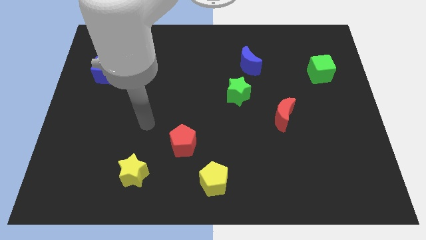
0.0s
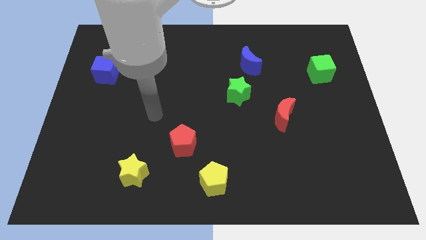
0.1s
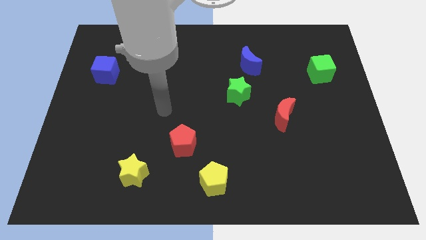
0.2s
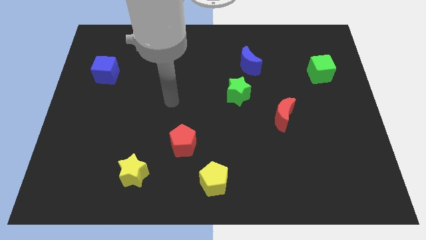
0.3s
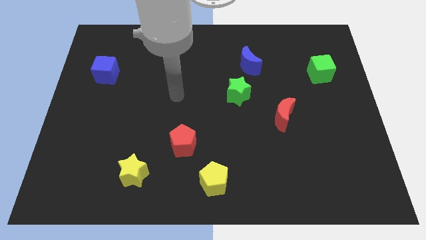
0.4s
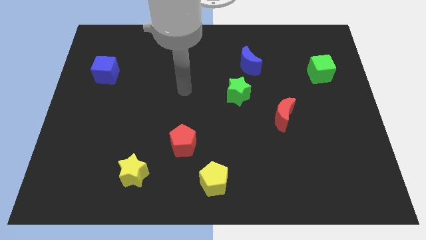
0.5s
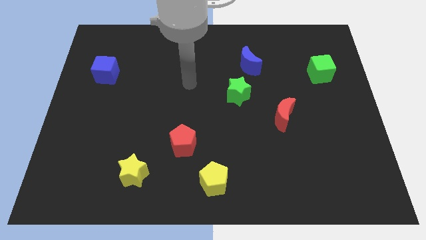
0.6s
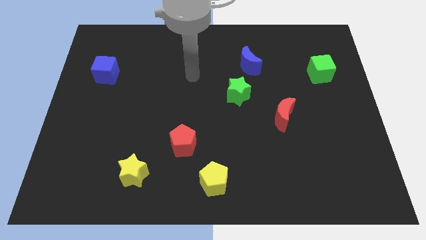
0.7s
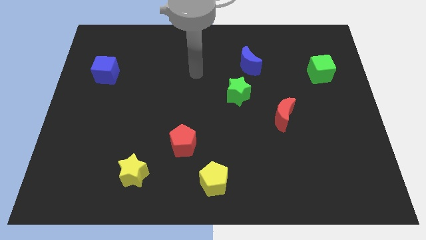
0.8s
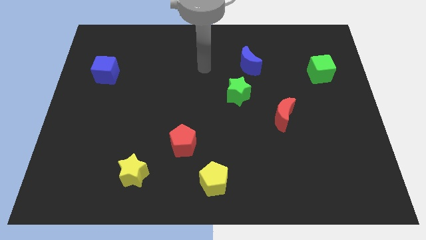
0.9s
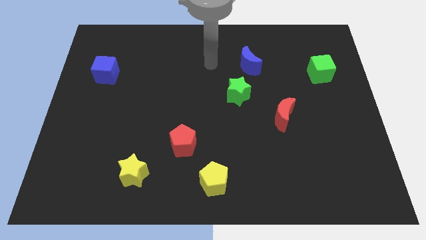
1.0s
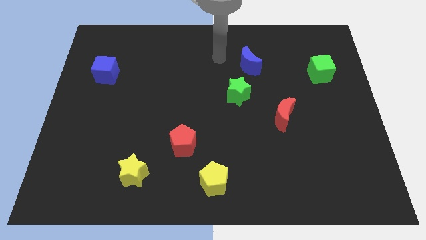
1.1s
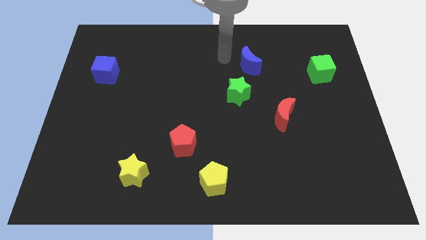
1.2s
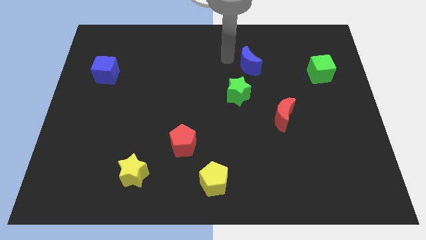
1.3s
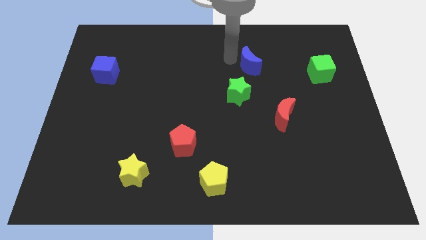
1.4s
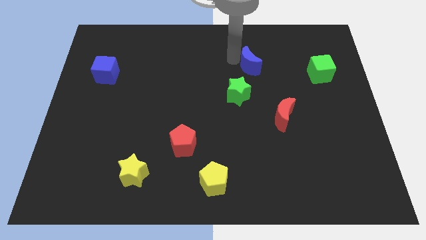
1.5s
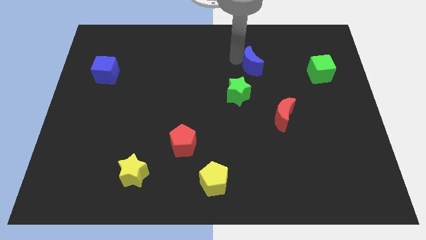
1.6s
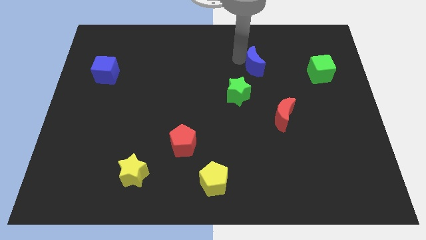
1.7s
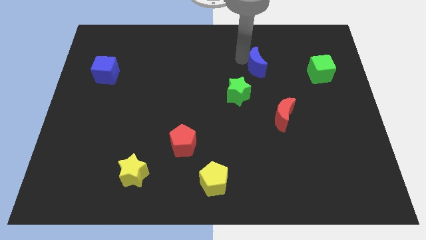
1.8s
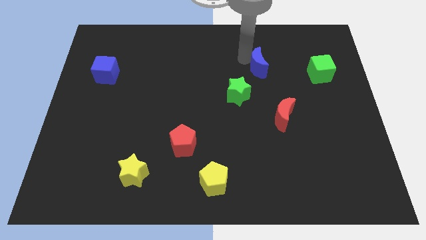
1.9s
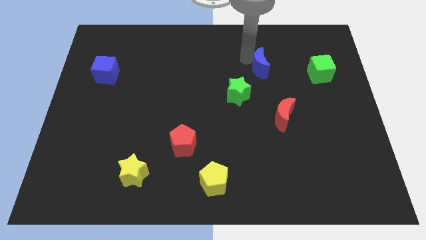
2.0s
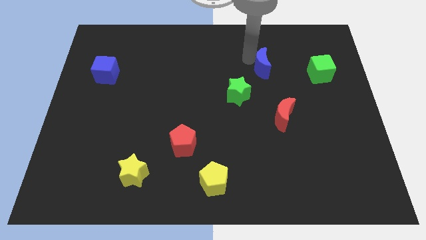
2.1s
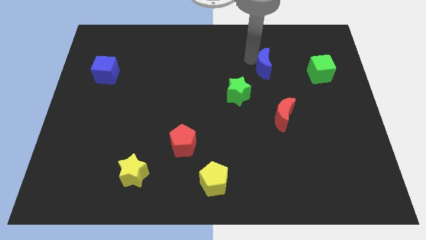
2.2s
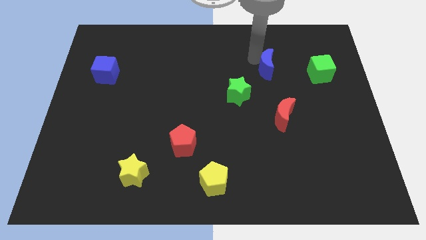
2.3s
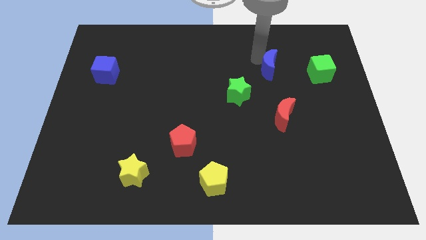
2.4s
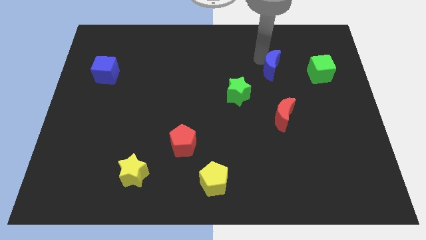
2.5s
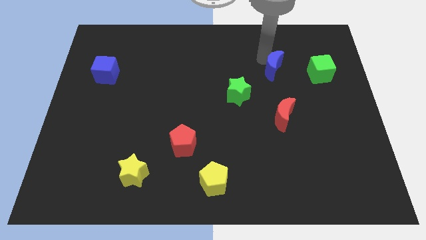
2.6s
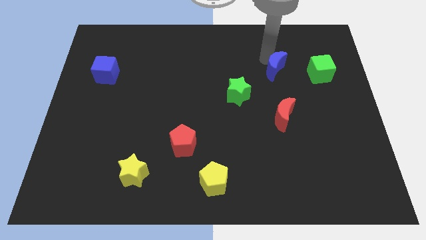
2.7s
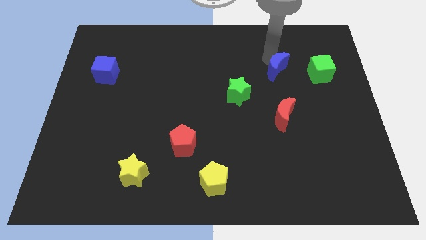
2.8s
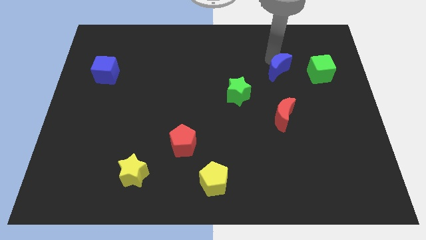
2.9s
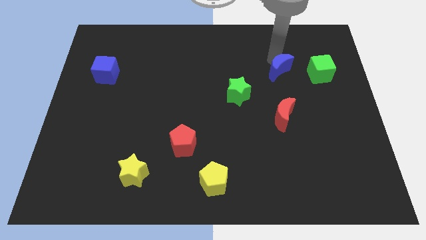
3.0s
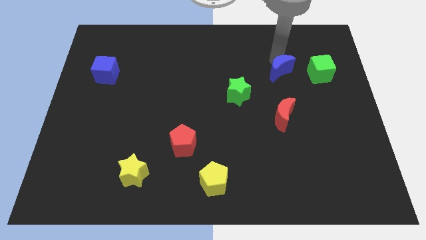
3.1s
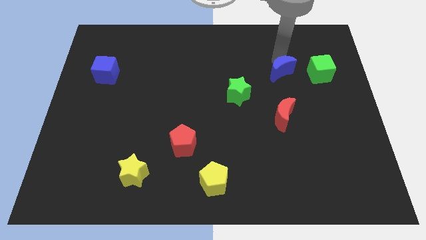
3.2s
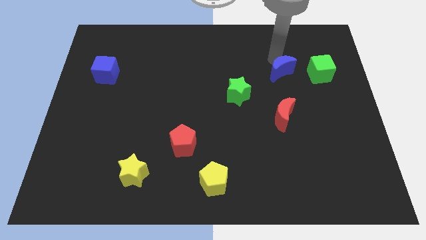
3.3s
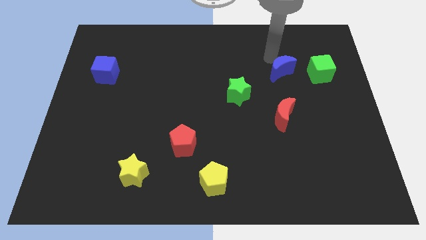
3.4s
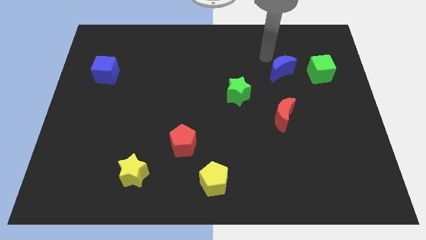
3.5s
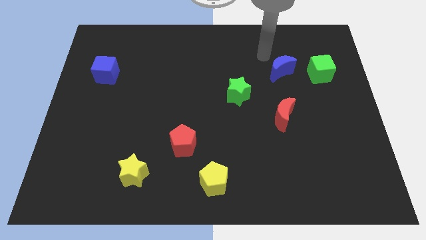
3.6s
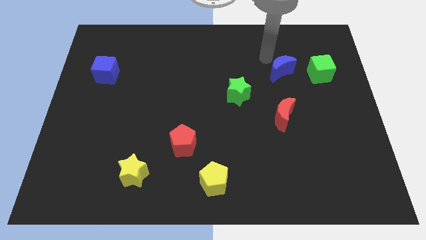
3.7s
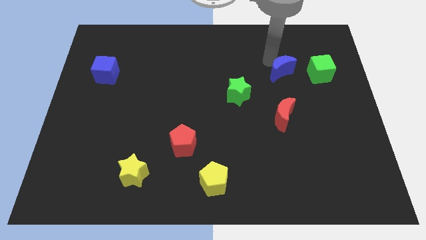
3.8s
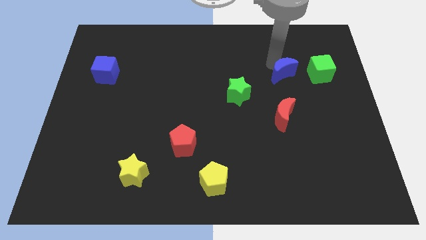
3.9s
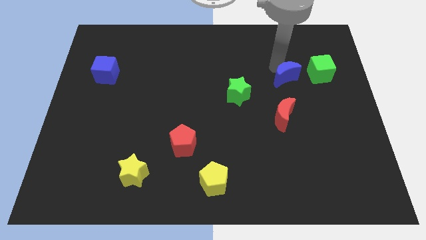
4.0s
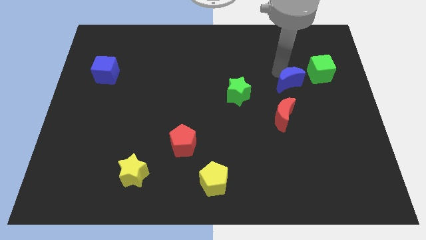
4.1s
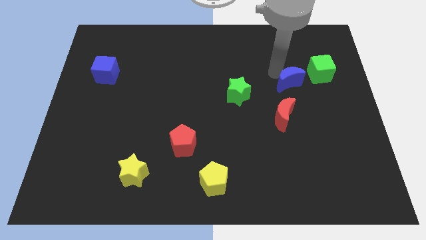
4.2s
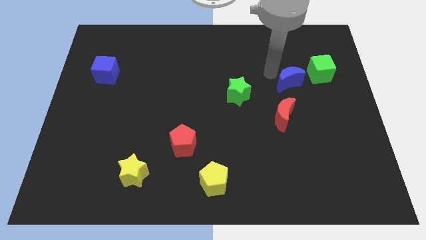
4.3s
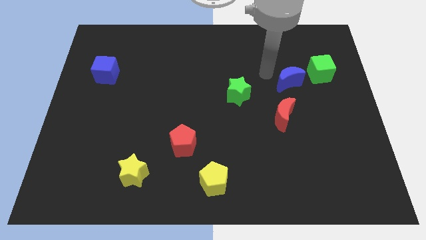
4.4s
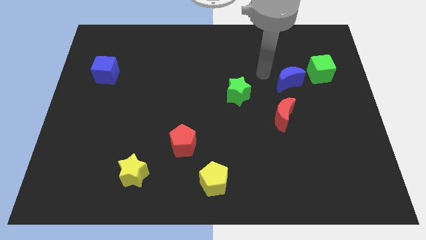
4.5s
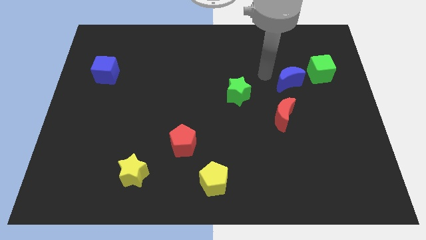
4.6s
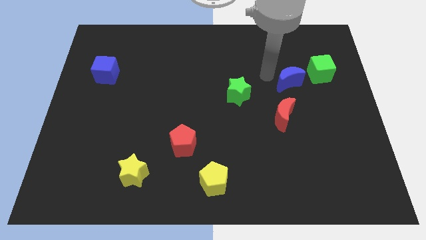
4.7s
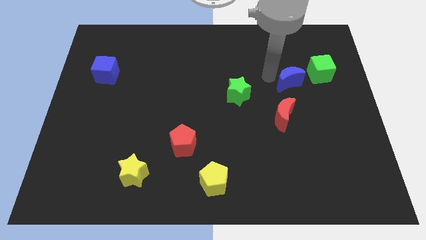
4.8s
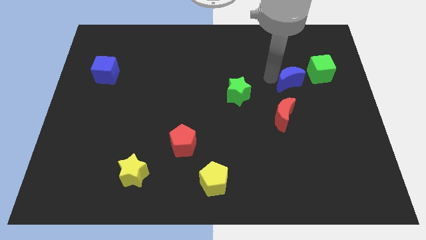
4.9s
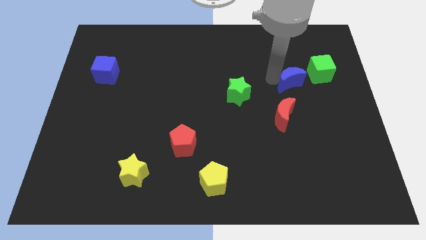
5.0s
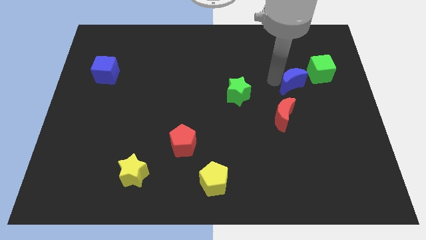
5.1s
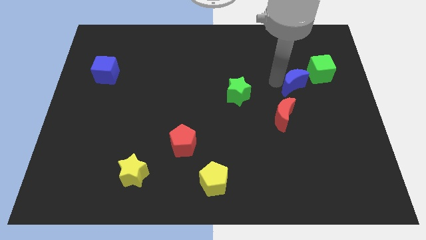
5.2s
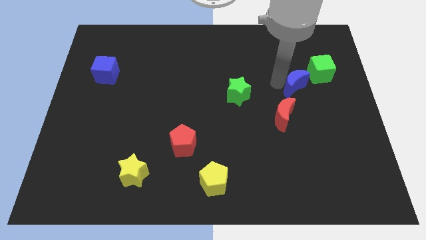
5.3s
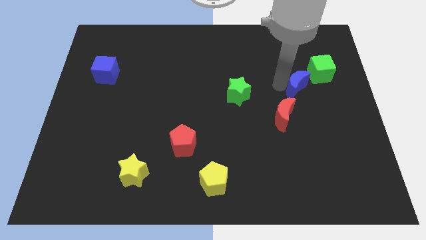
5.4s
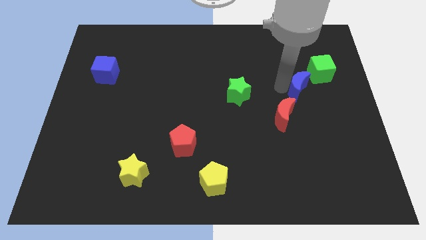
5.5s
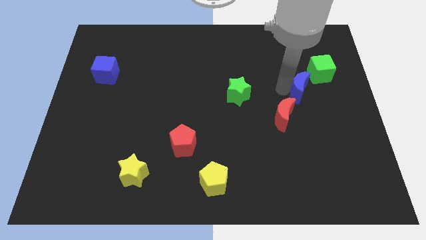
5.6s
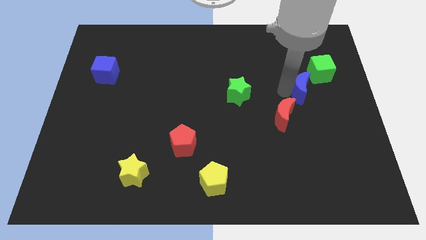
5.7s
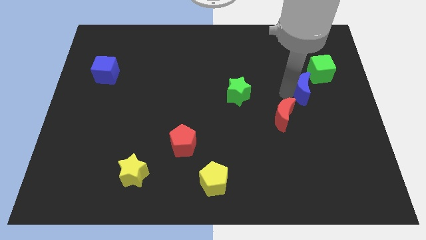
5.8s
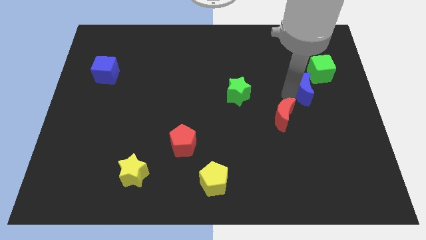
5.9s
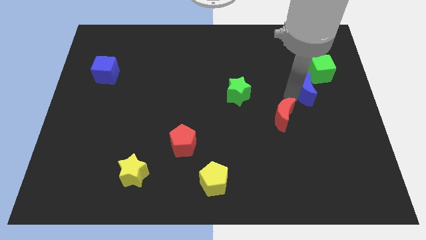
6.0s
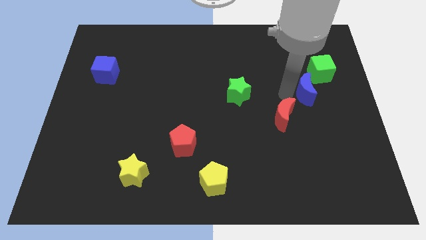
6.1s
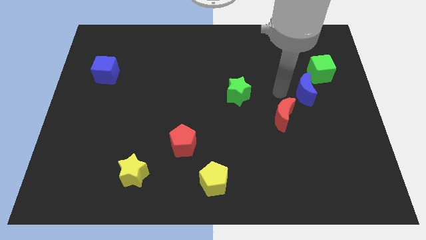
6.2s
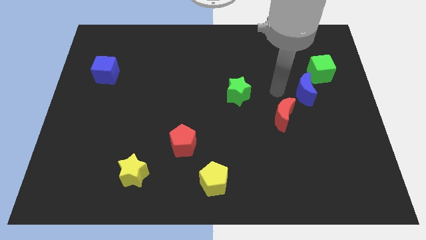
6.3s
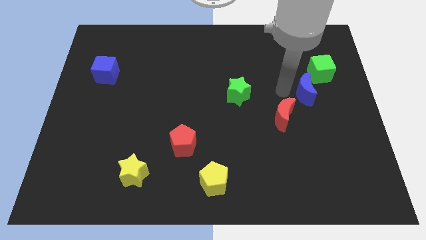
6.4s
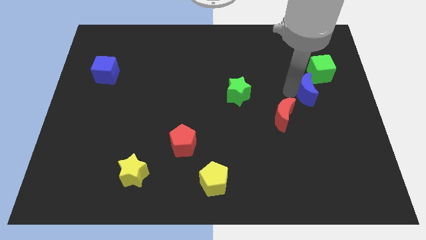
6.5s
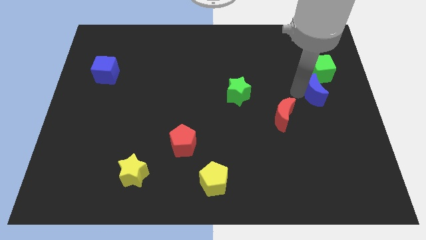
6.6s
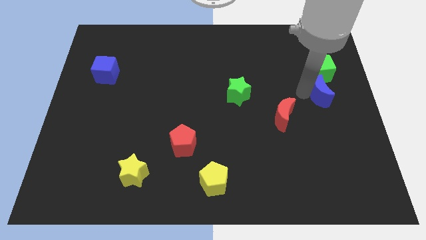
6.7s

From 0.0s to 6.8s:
push the blue moon to the right side of the board
